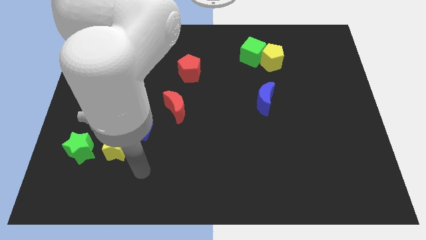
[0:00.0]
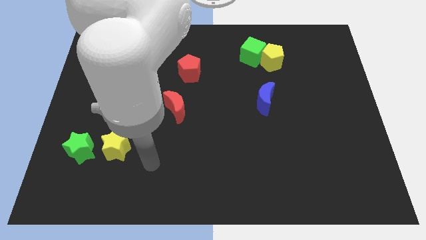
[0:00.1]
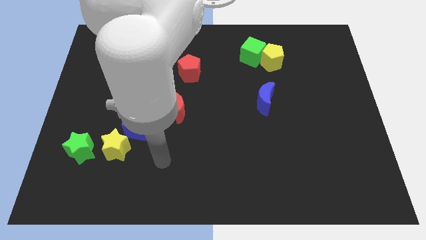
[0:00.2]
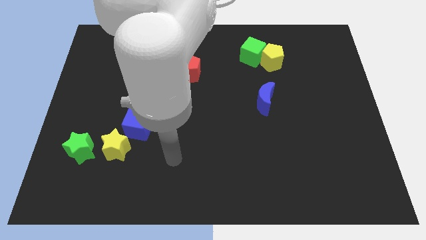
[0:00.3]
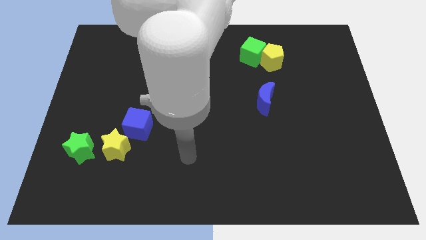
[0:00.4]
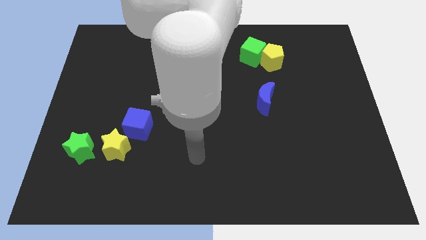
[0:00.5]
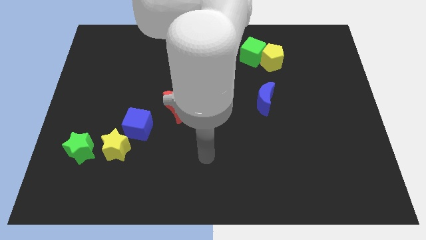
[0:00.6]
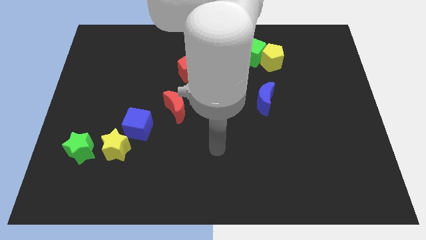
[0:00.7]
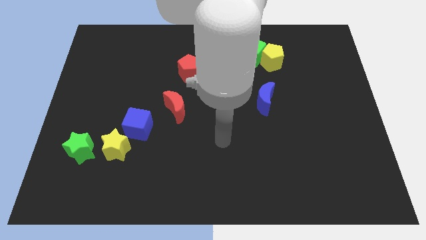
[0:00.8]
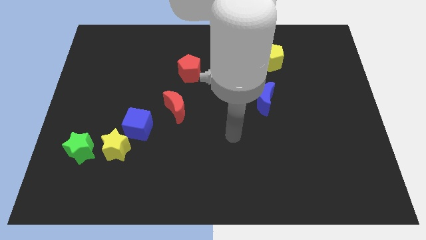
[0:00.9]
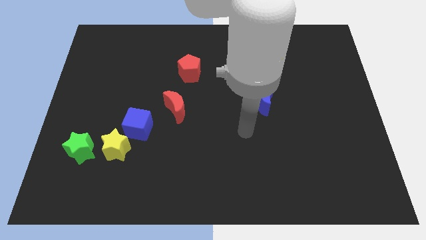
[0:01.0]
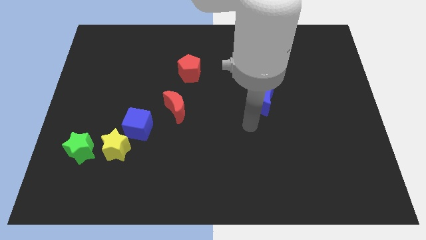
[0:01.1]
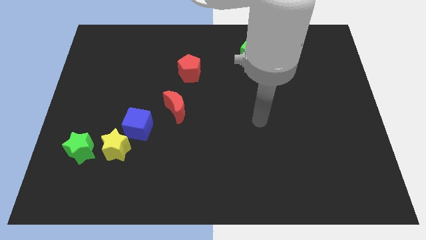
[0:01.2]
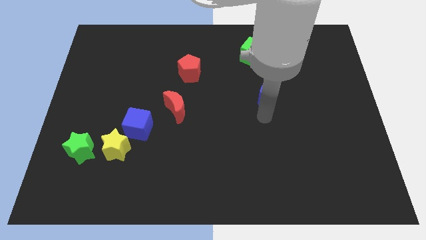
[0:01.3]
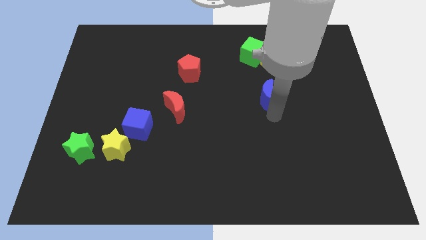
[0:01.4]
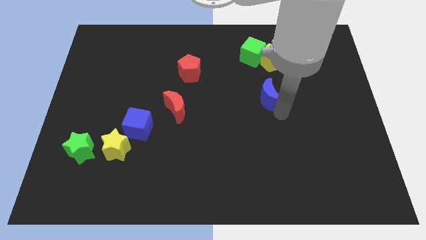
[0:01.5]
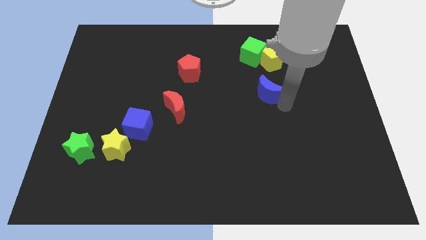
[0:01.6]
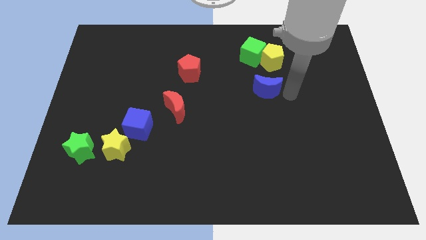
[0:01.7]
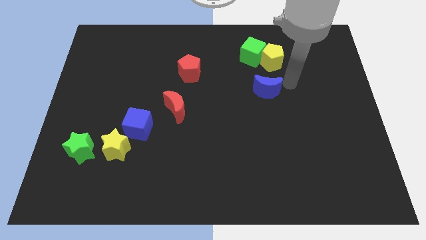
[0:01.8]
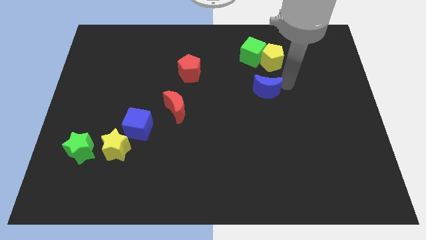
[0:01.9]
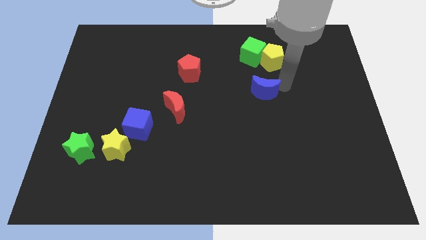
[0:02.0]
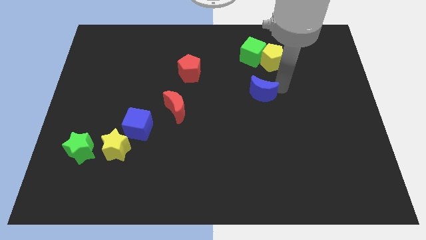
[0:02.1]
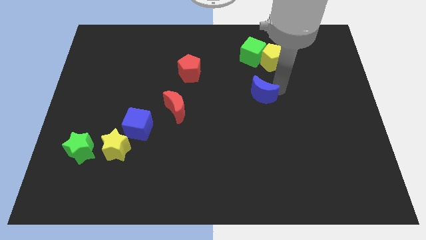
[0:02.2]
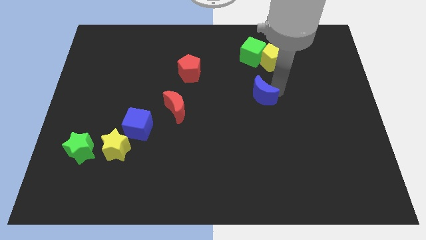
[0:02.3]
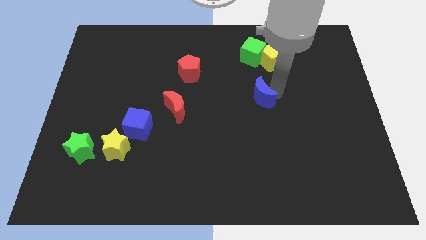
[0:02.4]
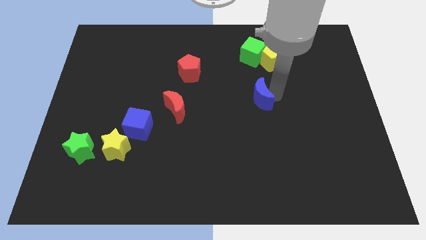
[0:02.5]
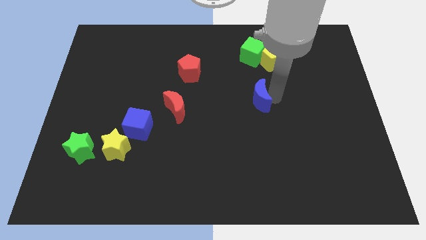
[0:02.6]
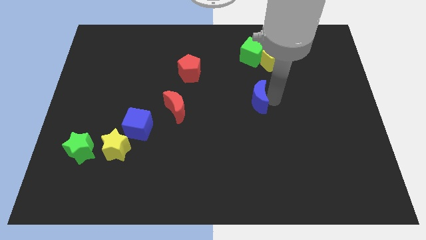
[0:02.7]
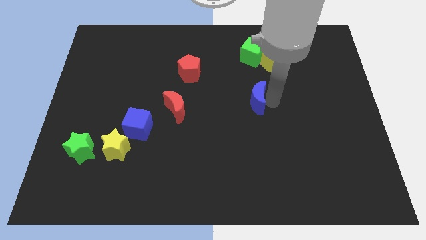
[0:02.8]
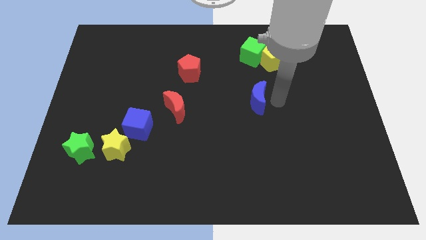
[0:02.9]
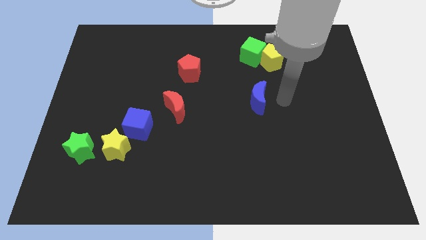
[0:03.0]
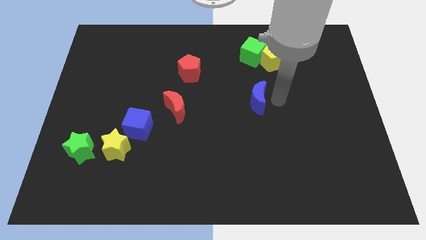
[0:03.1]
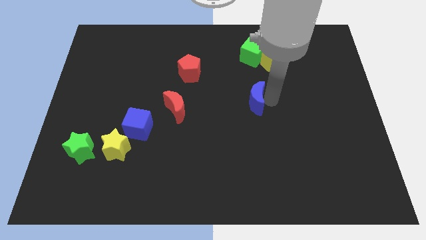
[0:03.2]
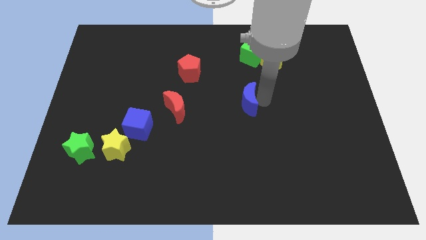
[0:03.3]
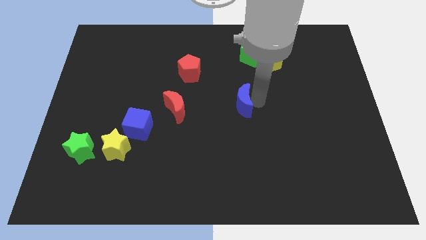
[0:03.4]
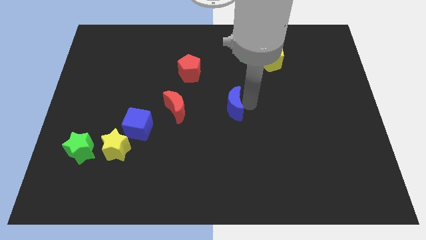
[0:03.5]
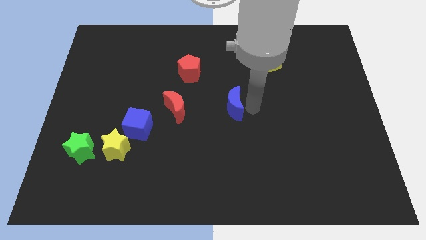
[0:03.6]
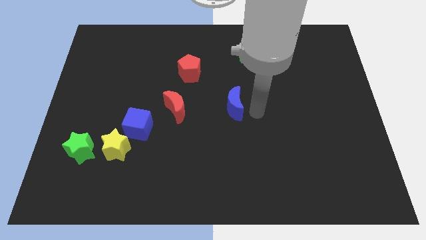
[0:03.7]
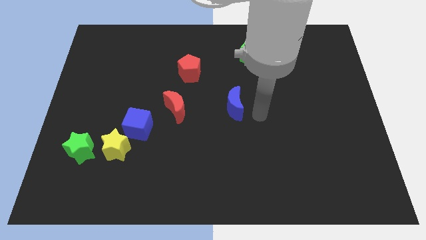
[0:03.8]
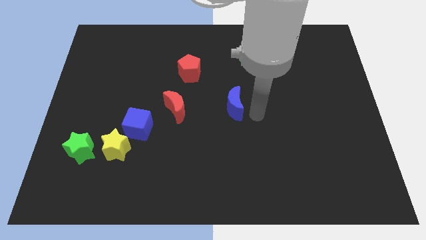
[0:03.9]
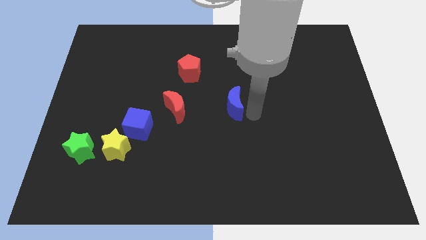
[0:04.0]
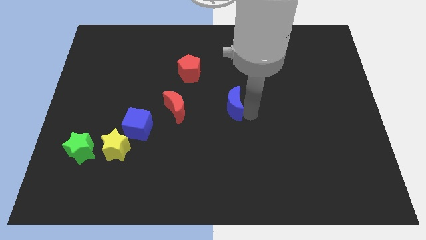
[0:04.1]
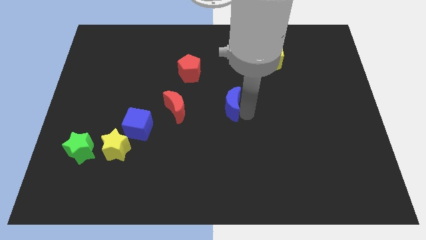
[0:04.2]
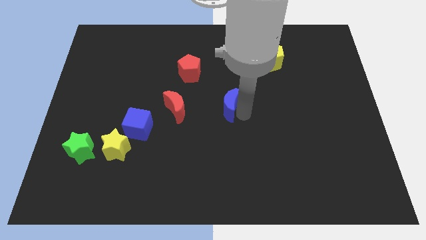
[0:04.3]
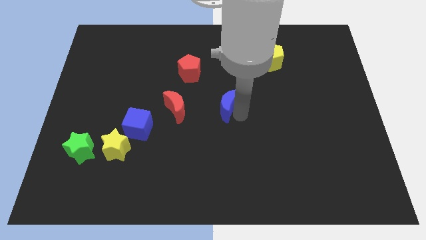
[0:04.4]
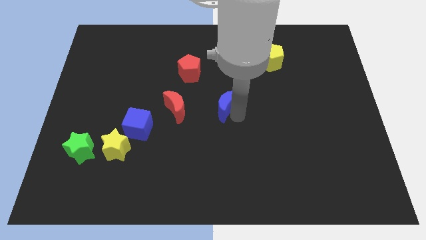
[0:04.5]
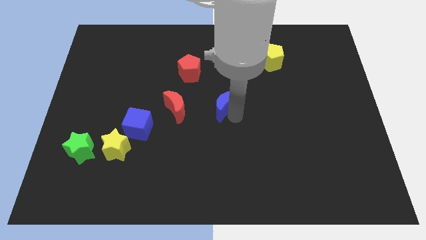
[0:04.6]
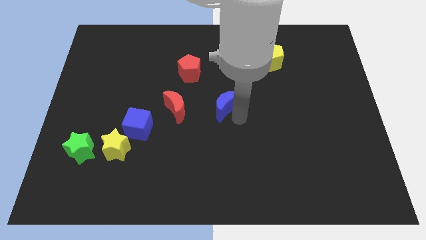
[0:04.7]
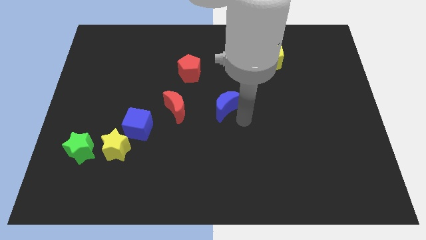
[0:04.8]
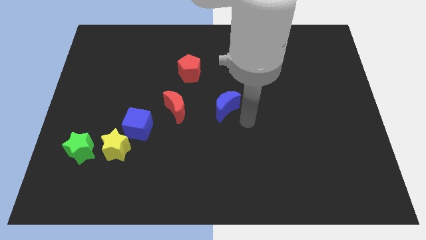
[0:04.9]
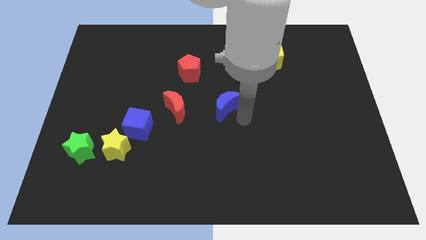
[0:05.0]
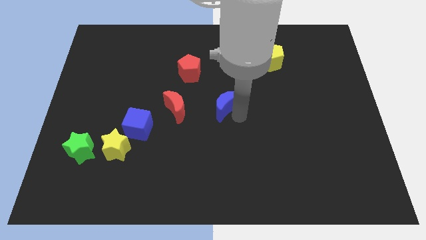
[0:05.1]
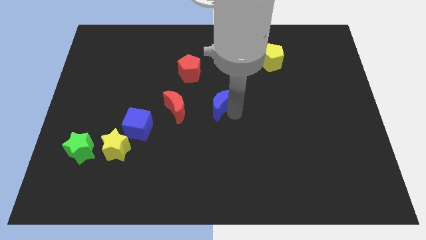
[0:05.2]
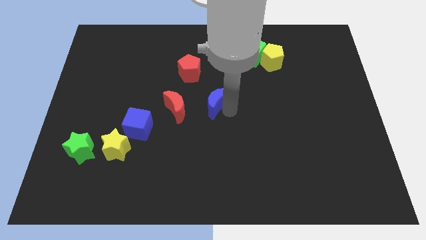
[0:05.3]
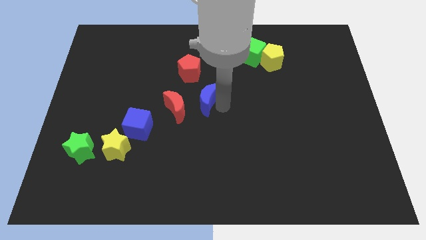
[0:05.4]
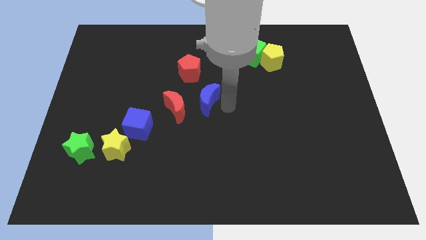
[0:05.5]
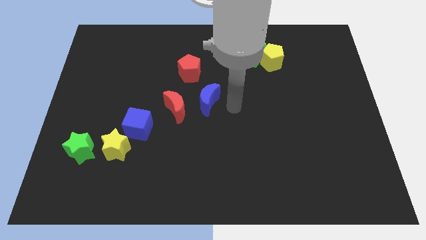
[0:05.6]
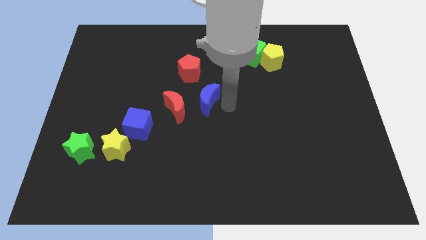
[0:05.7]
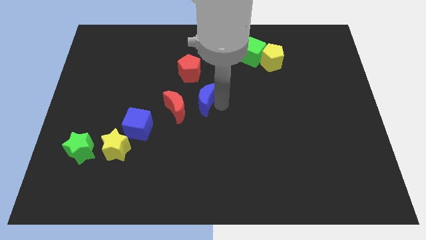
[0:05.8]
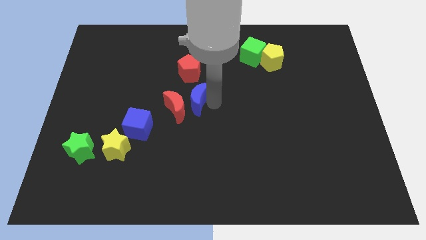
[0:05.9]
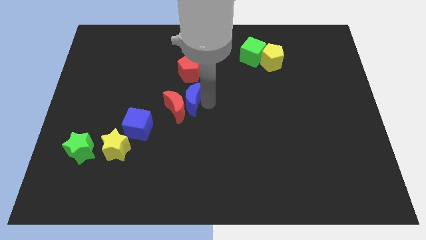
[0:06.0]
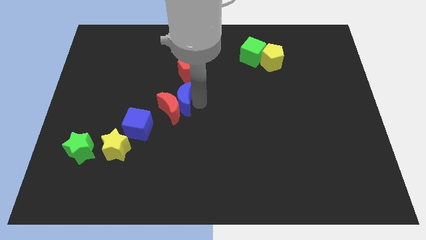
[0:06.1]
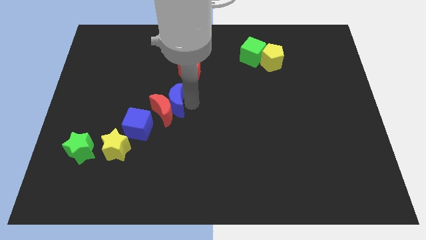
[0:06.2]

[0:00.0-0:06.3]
slide the blue moon left

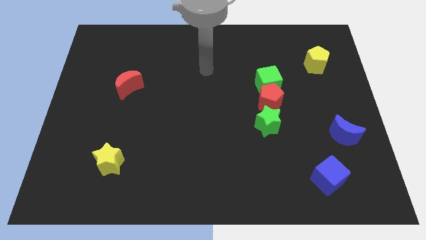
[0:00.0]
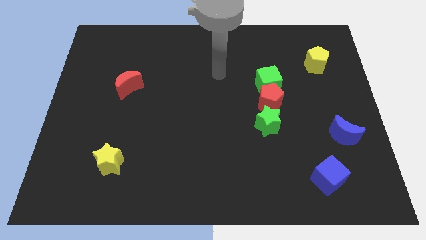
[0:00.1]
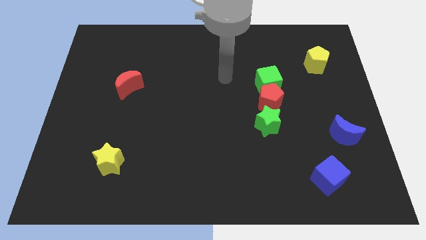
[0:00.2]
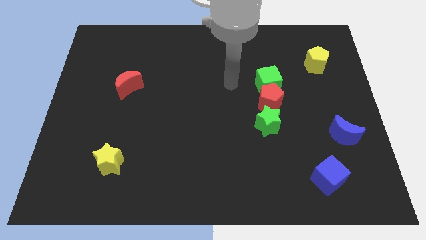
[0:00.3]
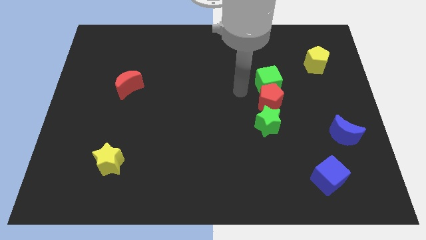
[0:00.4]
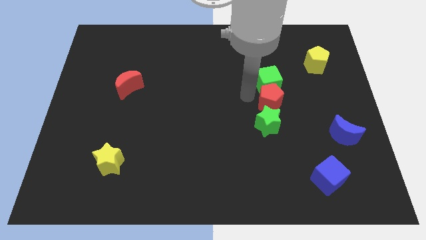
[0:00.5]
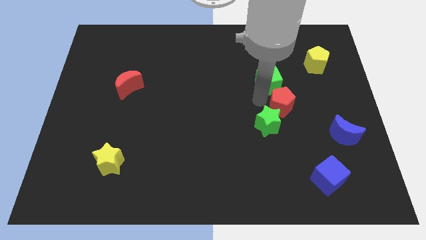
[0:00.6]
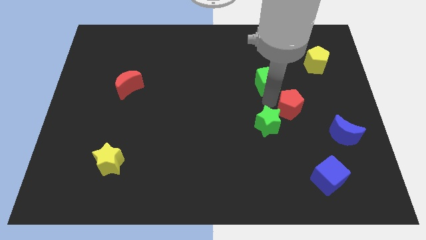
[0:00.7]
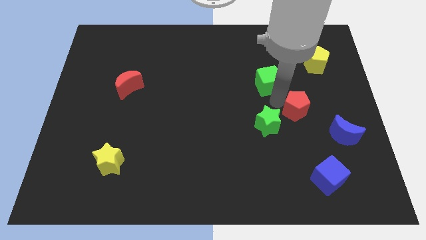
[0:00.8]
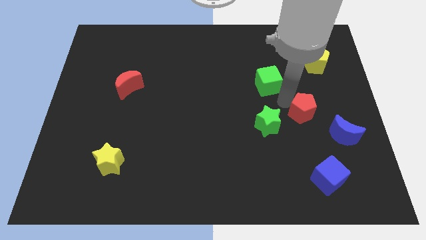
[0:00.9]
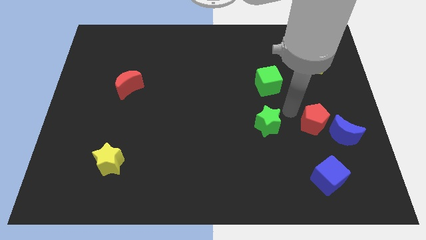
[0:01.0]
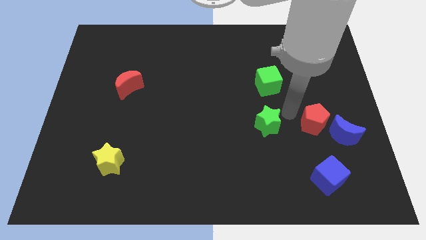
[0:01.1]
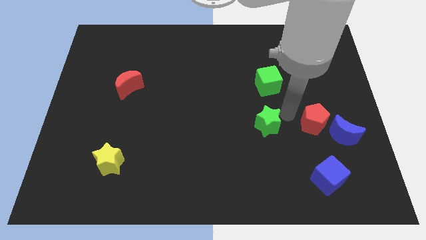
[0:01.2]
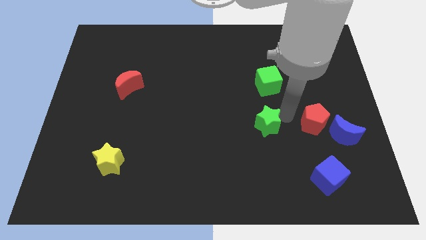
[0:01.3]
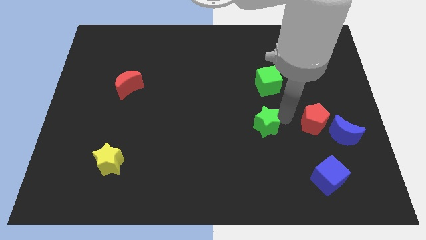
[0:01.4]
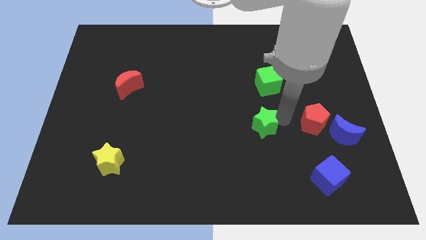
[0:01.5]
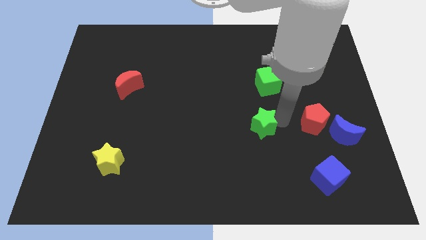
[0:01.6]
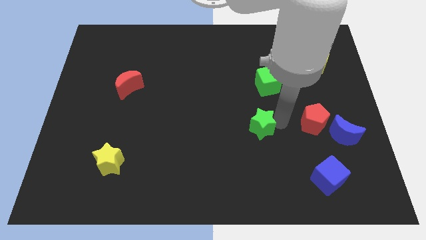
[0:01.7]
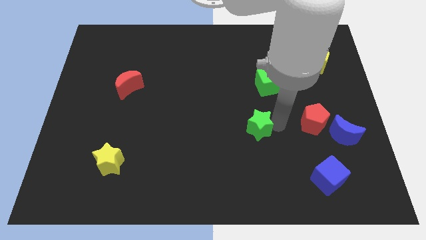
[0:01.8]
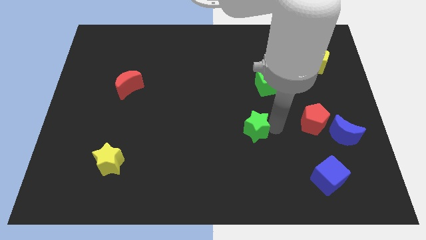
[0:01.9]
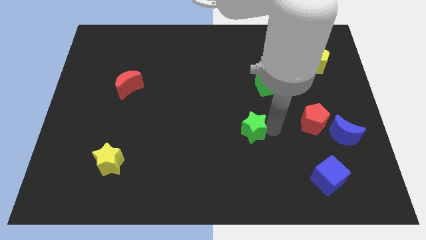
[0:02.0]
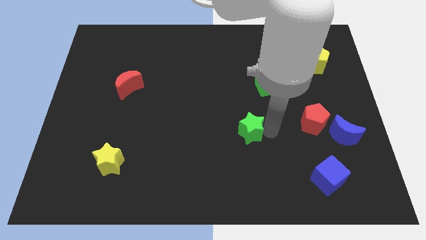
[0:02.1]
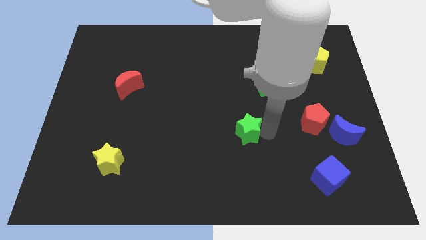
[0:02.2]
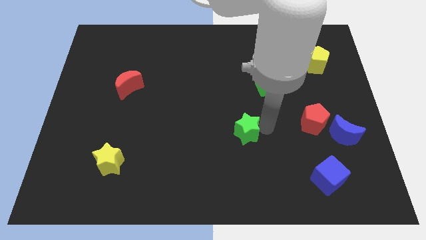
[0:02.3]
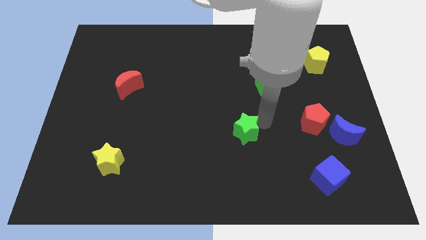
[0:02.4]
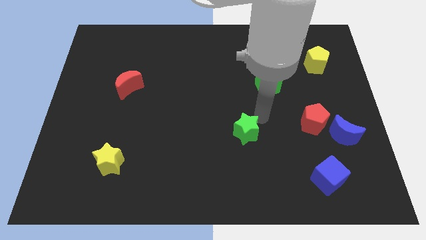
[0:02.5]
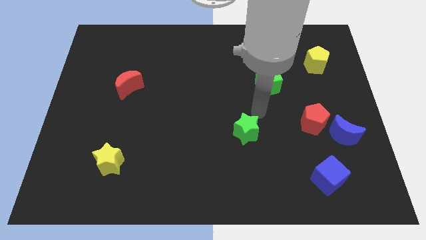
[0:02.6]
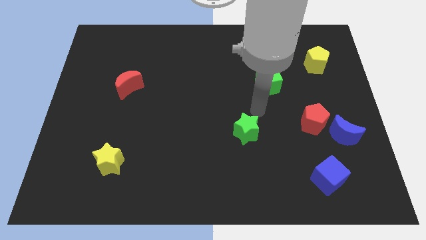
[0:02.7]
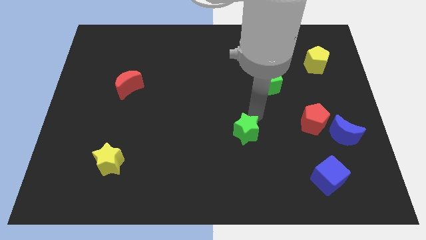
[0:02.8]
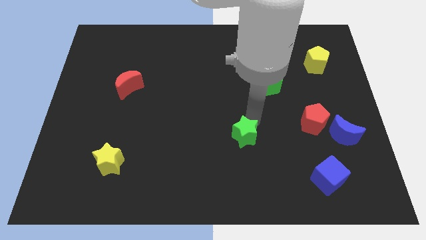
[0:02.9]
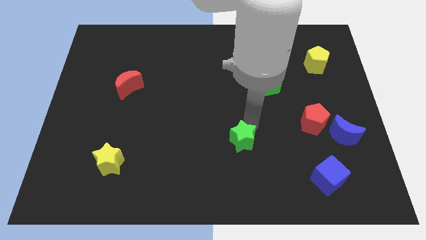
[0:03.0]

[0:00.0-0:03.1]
slide the green star somewhat down and to the left
